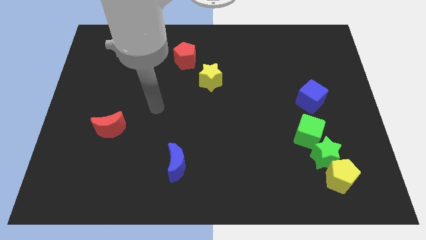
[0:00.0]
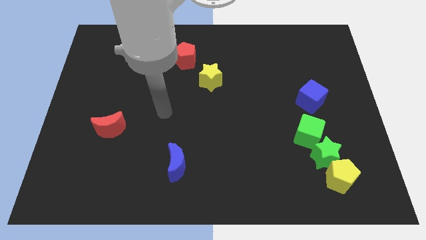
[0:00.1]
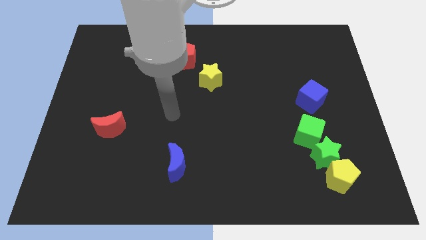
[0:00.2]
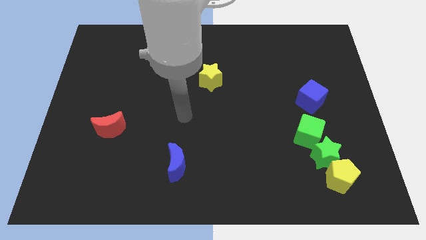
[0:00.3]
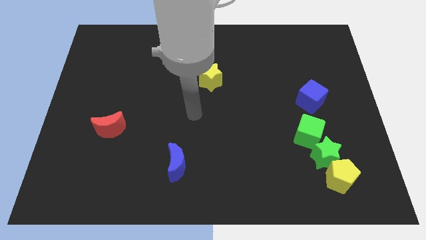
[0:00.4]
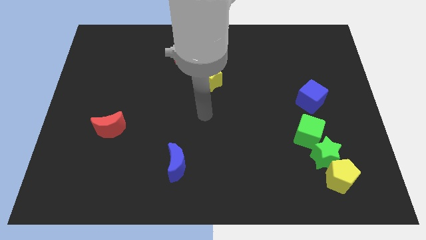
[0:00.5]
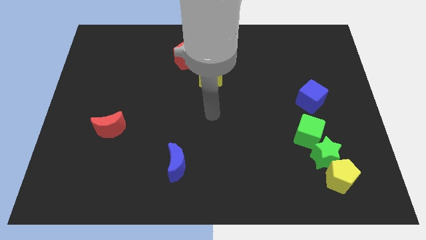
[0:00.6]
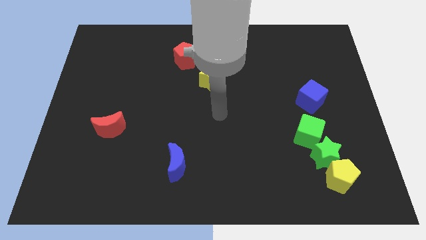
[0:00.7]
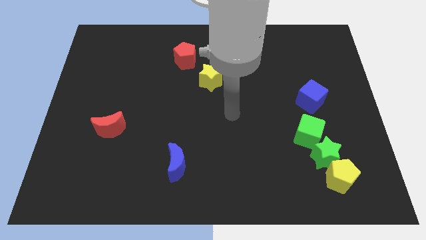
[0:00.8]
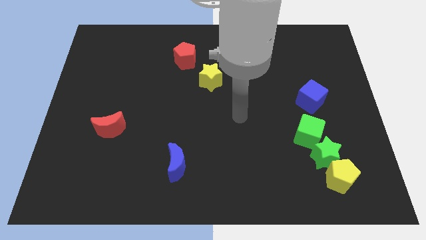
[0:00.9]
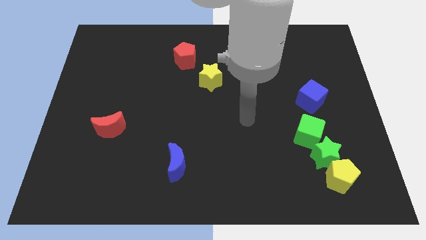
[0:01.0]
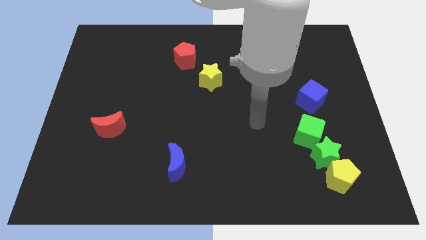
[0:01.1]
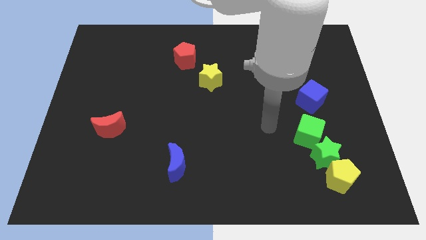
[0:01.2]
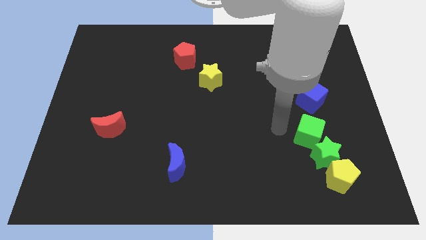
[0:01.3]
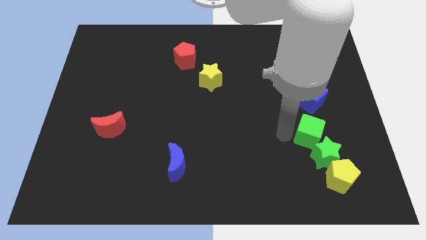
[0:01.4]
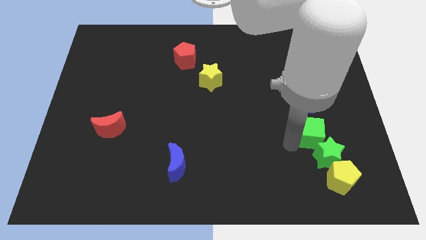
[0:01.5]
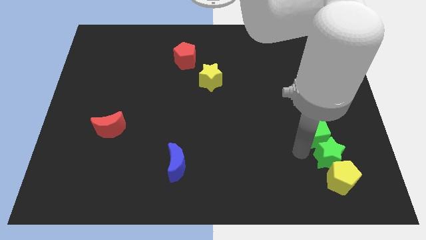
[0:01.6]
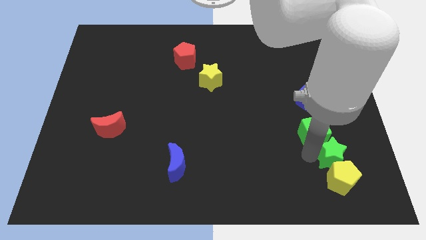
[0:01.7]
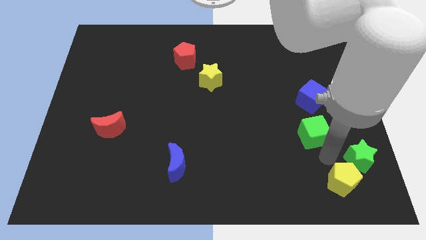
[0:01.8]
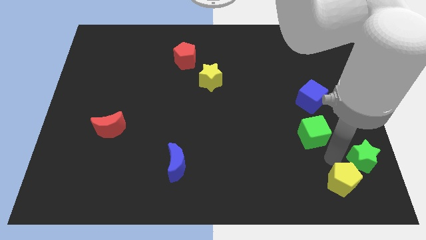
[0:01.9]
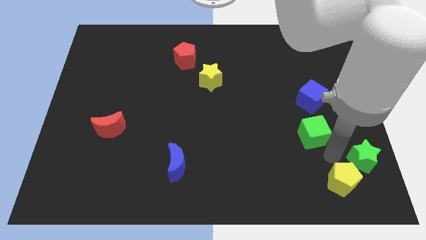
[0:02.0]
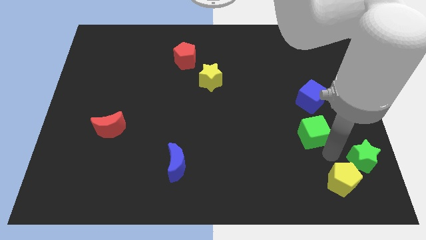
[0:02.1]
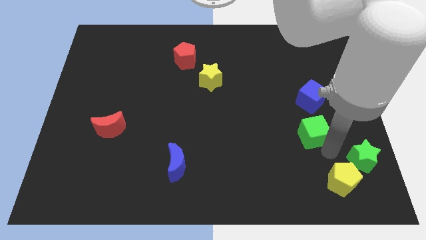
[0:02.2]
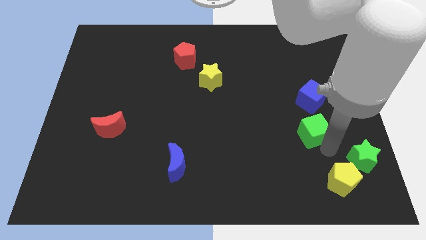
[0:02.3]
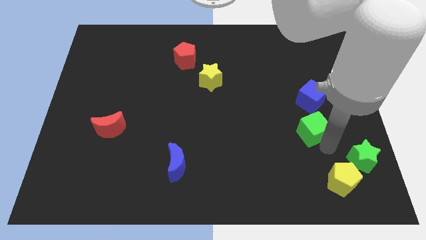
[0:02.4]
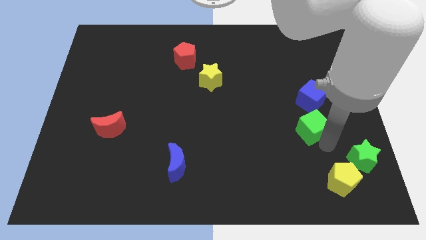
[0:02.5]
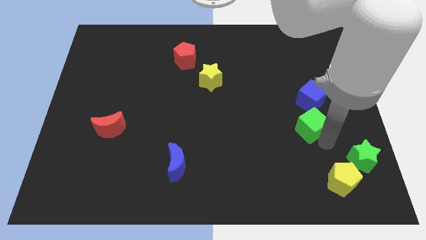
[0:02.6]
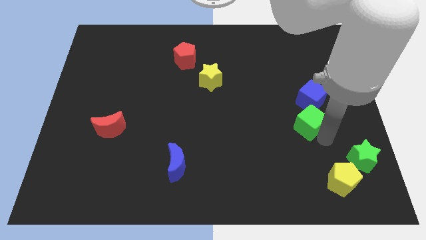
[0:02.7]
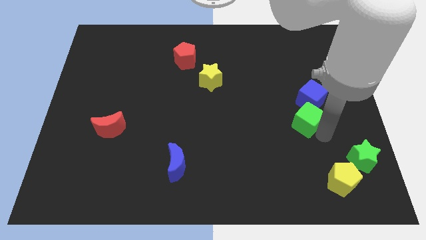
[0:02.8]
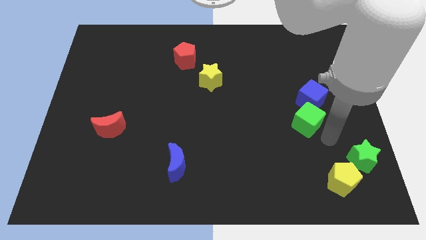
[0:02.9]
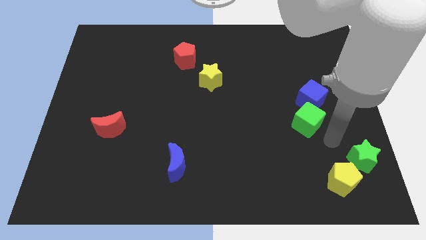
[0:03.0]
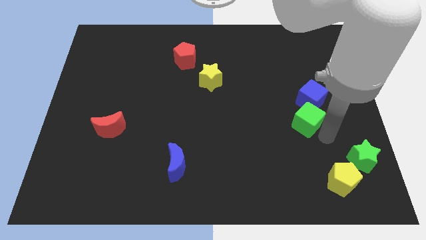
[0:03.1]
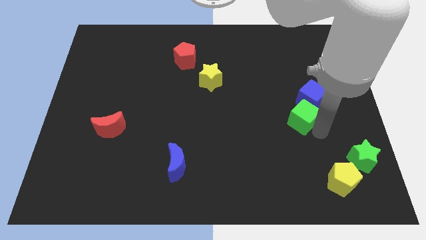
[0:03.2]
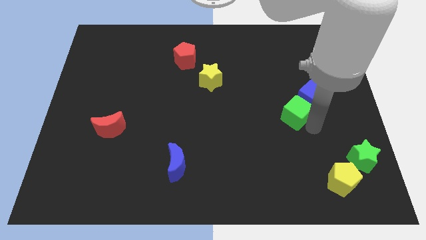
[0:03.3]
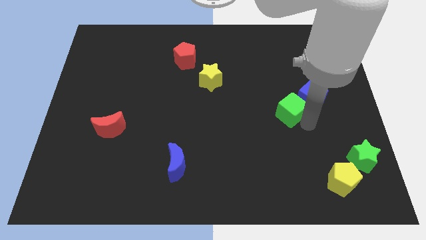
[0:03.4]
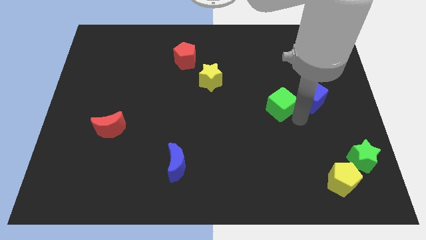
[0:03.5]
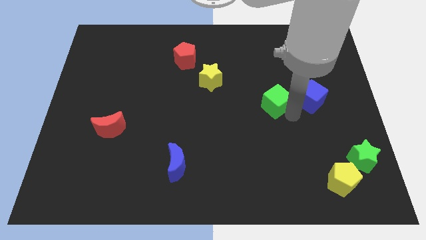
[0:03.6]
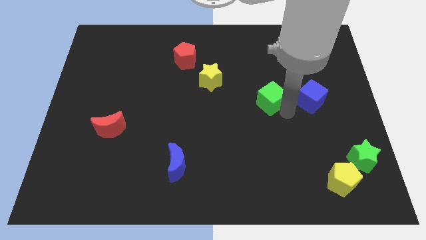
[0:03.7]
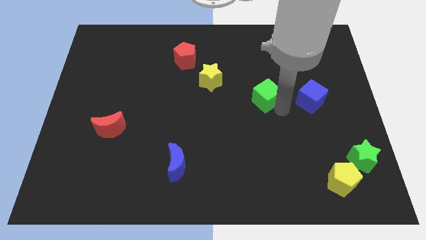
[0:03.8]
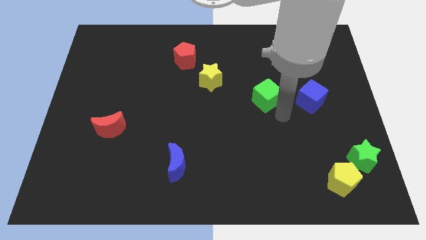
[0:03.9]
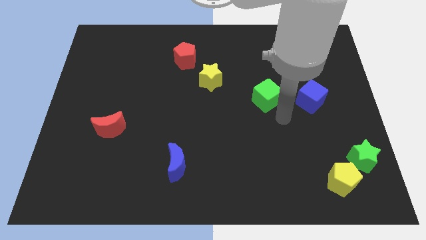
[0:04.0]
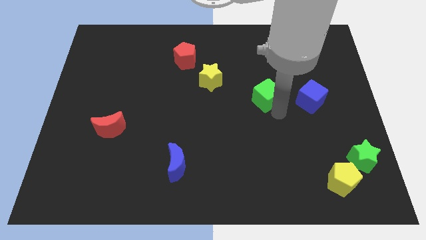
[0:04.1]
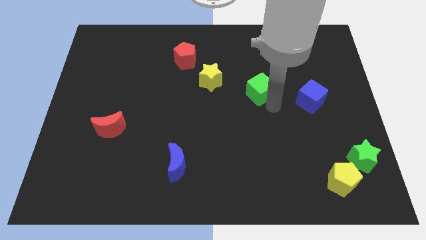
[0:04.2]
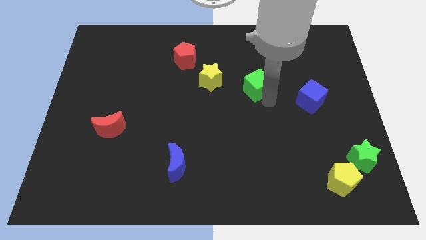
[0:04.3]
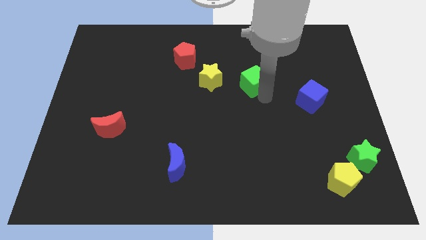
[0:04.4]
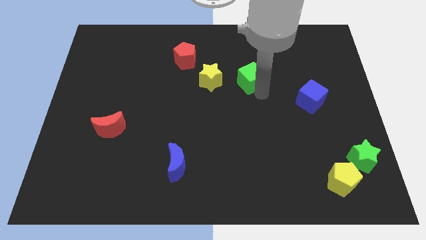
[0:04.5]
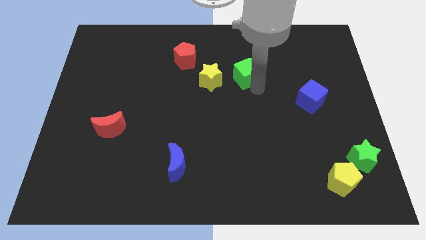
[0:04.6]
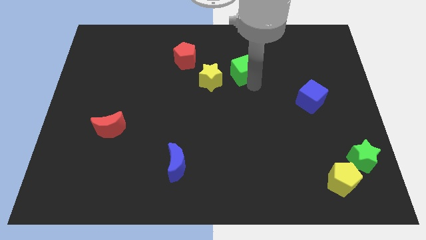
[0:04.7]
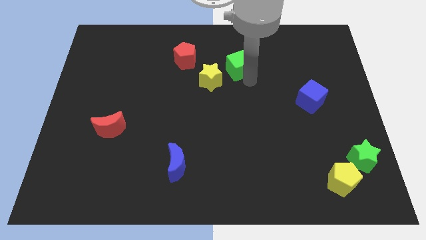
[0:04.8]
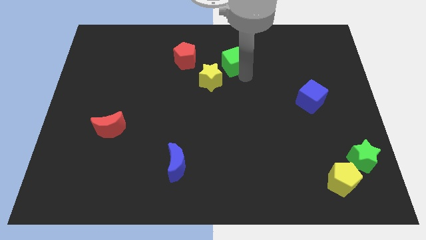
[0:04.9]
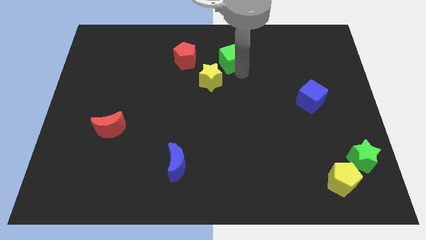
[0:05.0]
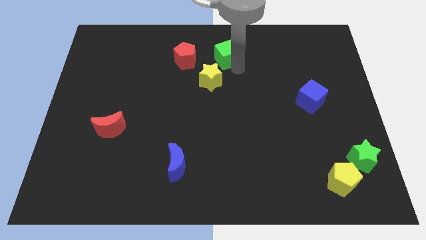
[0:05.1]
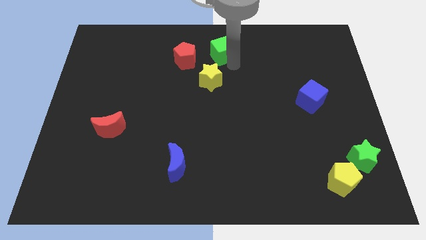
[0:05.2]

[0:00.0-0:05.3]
push the green cube to the top

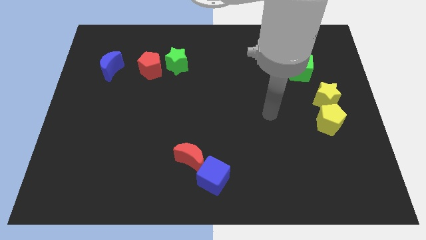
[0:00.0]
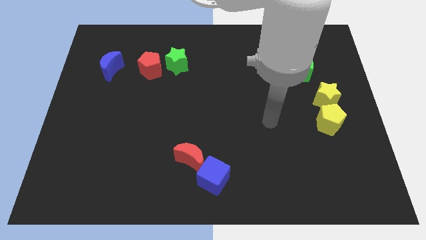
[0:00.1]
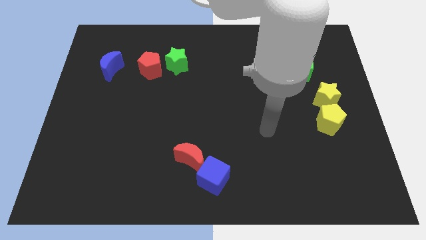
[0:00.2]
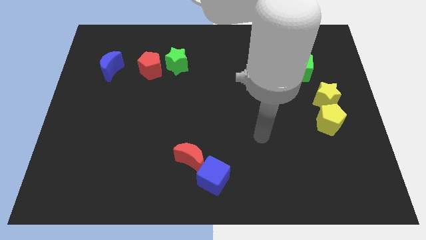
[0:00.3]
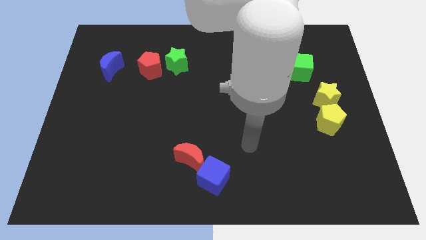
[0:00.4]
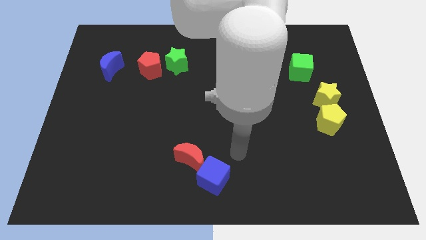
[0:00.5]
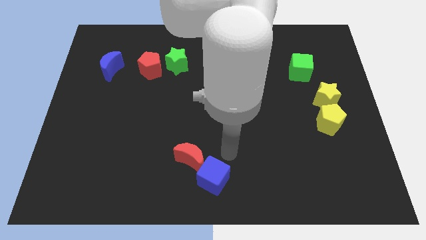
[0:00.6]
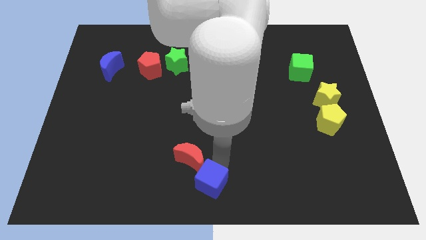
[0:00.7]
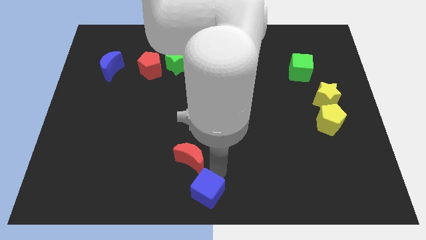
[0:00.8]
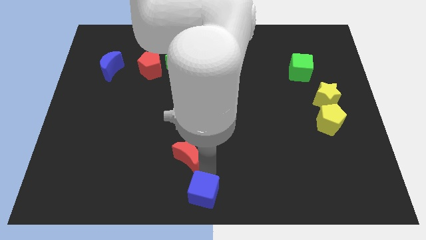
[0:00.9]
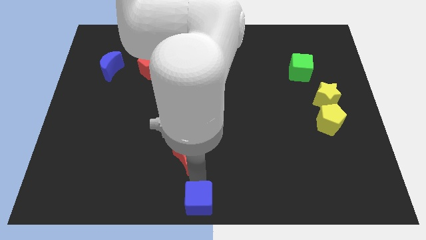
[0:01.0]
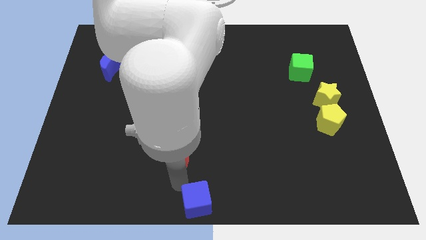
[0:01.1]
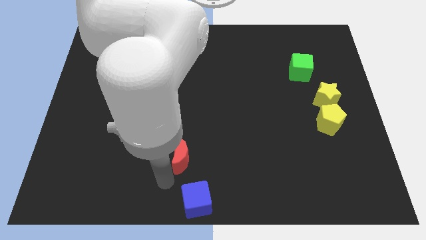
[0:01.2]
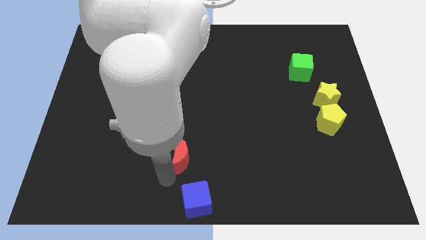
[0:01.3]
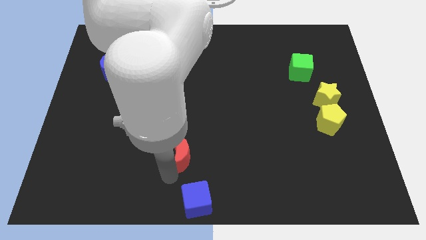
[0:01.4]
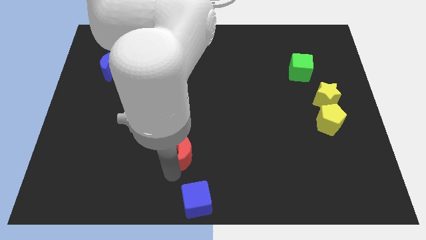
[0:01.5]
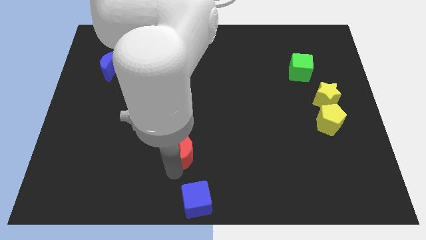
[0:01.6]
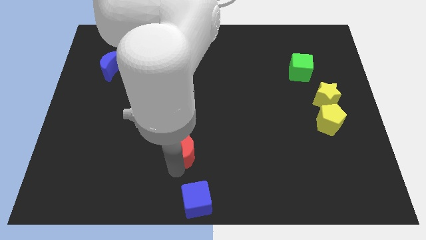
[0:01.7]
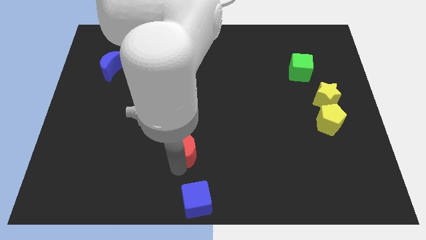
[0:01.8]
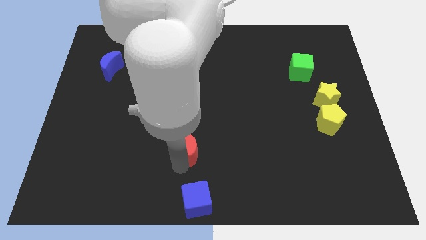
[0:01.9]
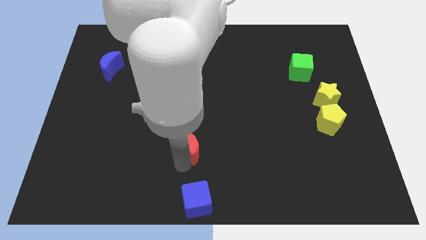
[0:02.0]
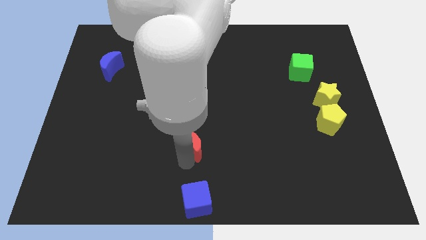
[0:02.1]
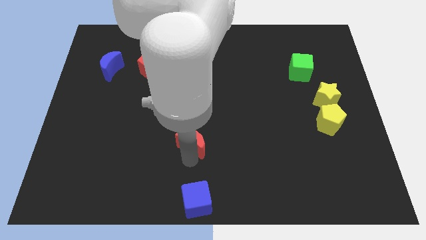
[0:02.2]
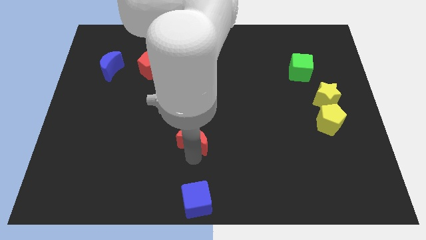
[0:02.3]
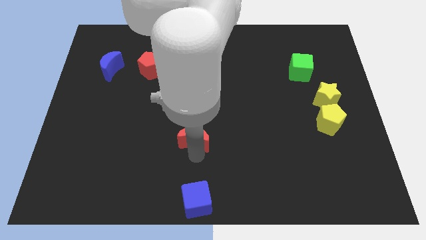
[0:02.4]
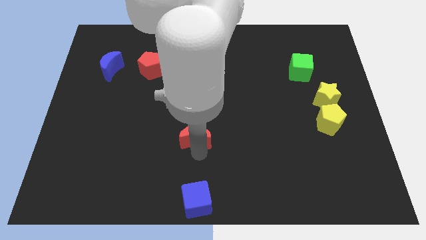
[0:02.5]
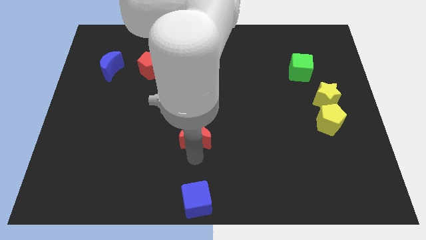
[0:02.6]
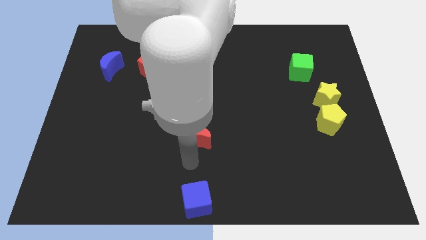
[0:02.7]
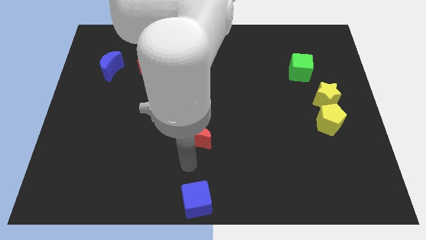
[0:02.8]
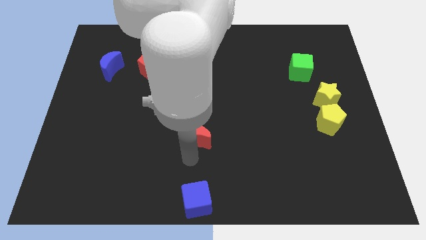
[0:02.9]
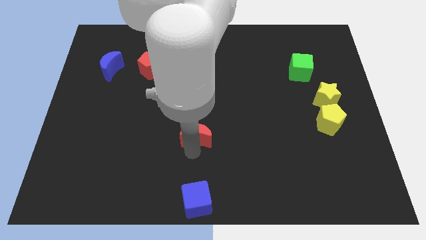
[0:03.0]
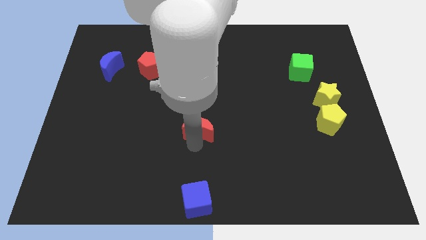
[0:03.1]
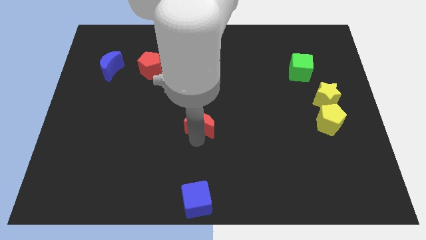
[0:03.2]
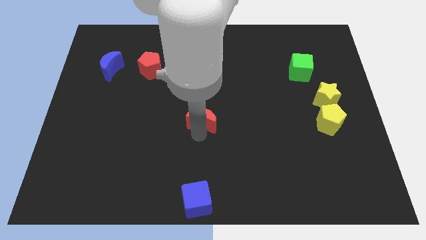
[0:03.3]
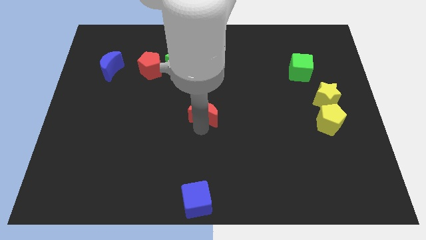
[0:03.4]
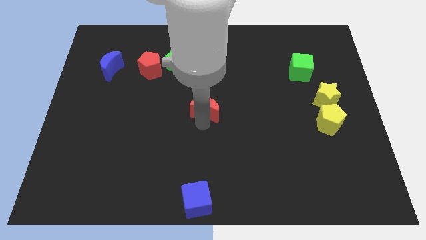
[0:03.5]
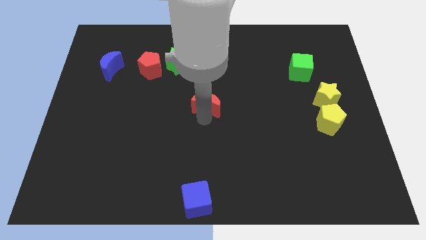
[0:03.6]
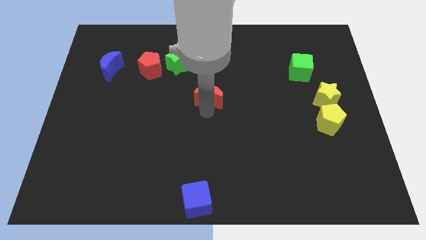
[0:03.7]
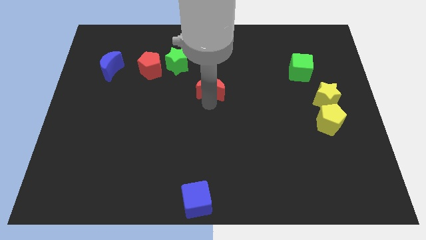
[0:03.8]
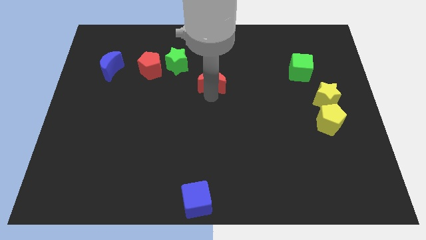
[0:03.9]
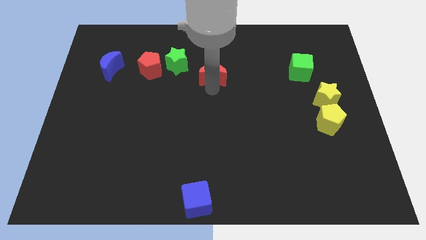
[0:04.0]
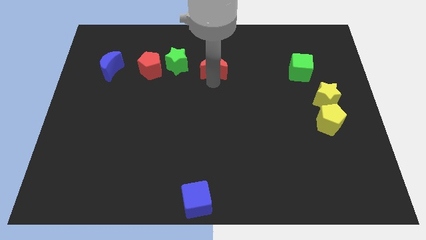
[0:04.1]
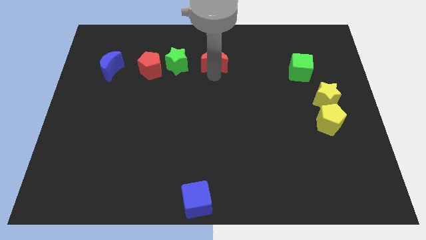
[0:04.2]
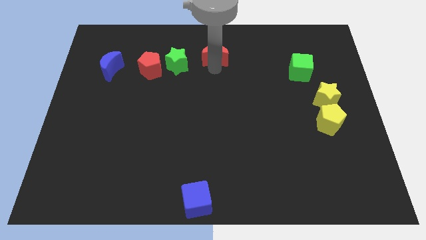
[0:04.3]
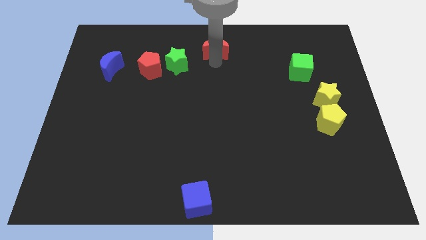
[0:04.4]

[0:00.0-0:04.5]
push the red moon to the top
